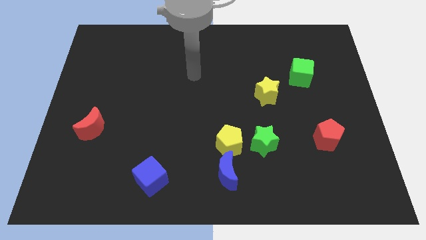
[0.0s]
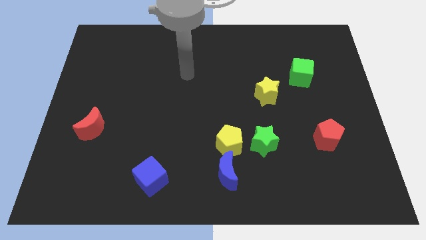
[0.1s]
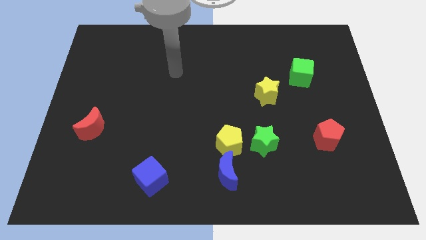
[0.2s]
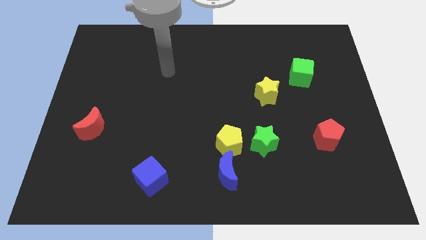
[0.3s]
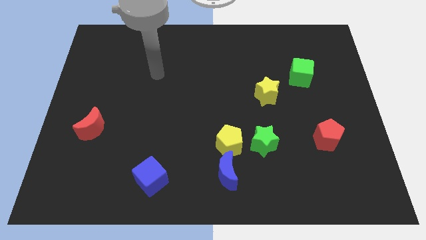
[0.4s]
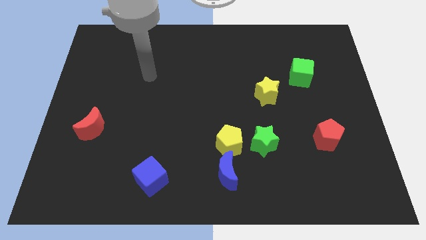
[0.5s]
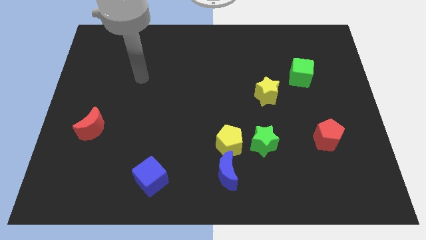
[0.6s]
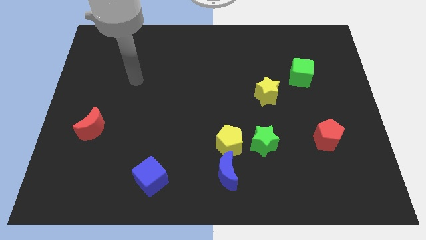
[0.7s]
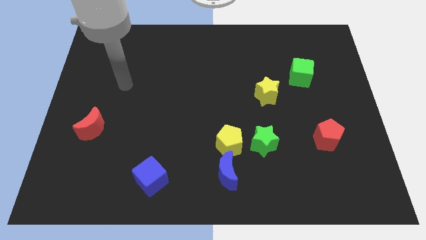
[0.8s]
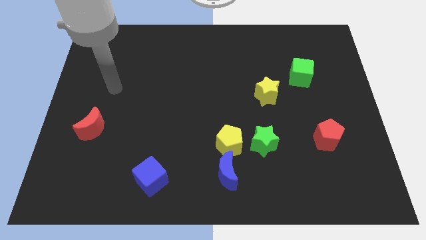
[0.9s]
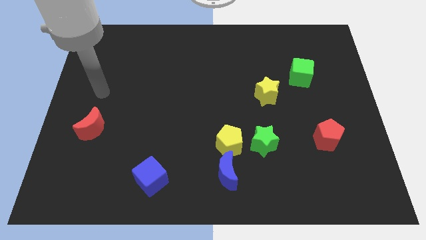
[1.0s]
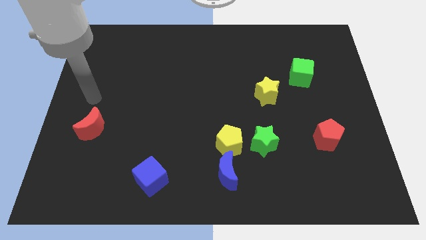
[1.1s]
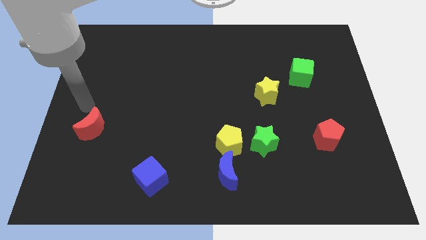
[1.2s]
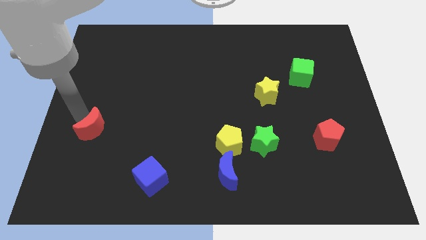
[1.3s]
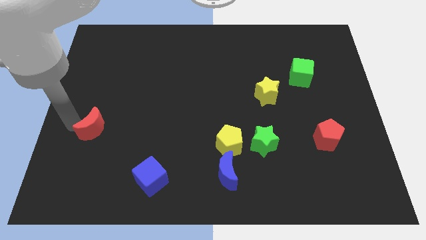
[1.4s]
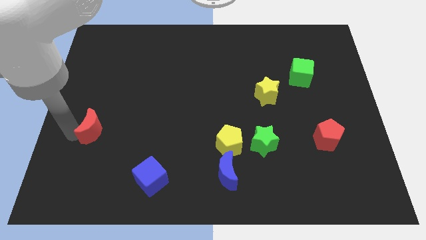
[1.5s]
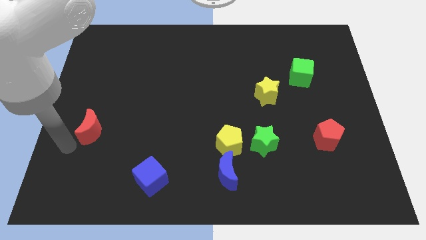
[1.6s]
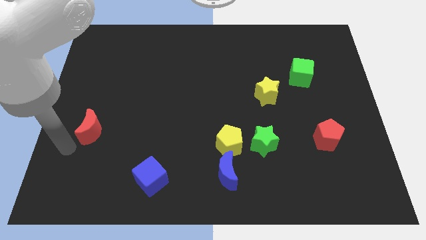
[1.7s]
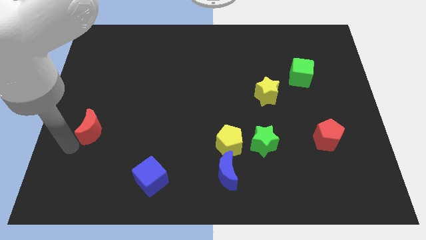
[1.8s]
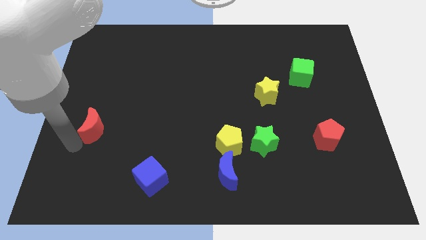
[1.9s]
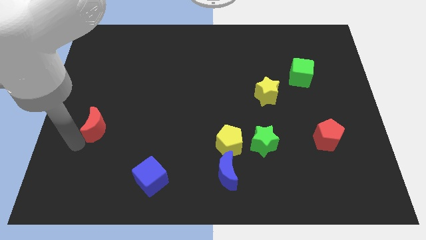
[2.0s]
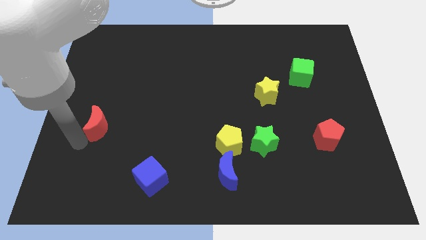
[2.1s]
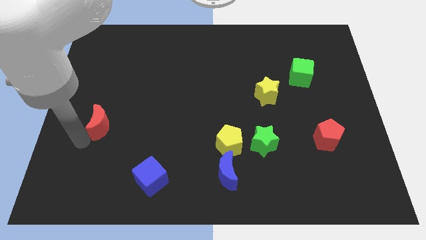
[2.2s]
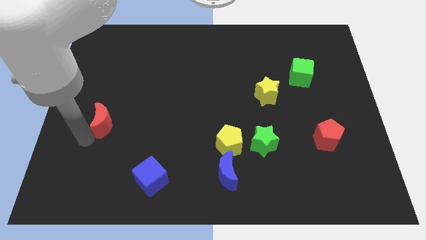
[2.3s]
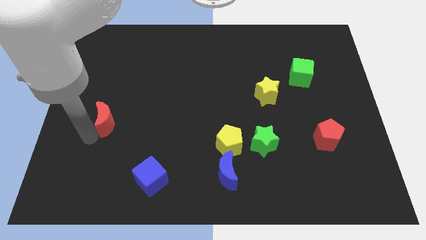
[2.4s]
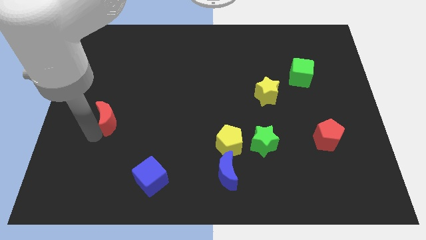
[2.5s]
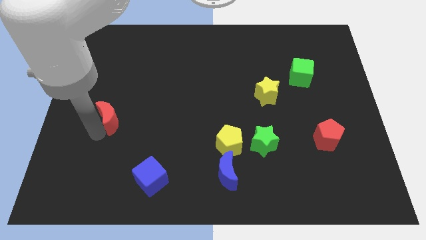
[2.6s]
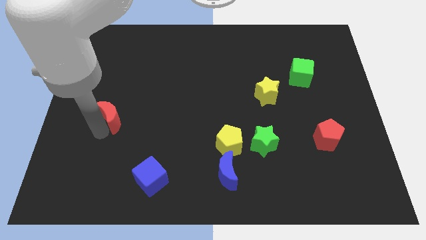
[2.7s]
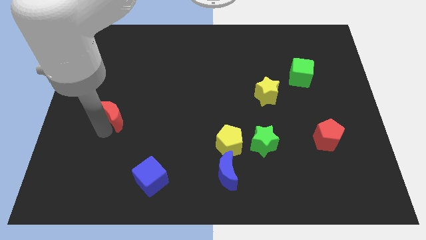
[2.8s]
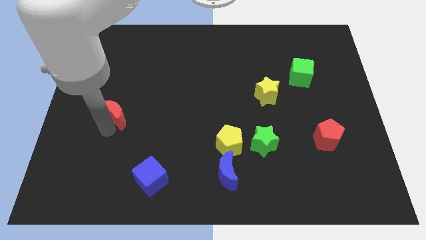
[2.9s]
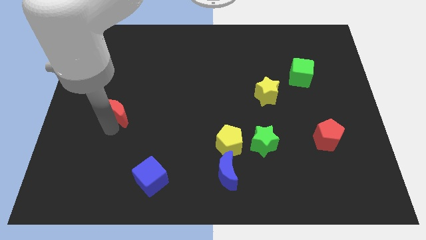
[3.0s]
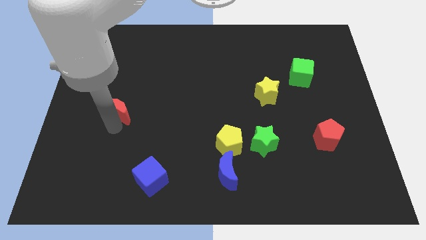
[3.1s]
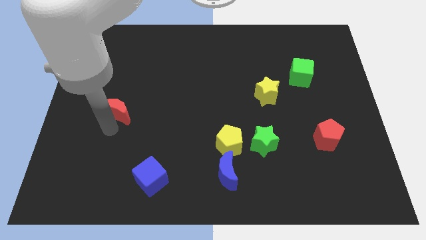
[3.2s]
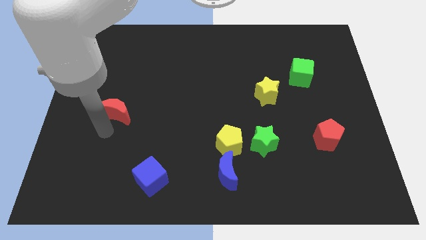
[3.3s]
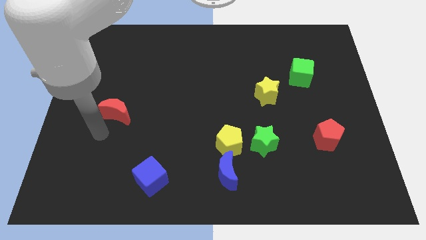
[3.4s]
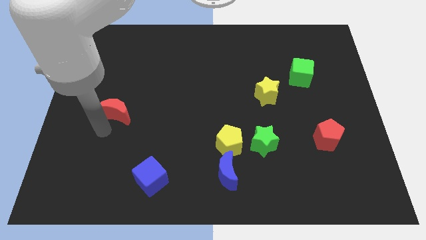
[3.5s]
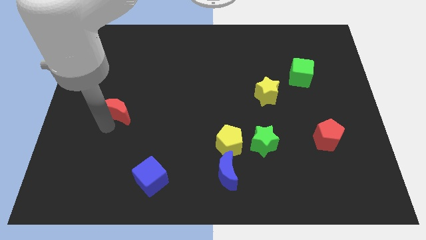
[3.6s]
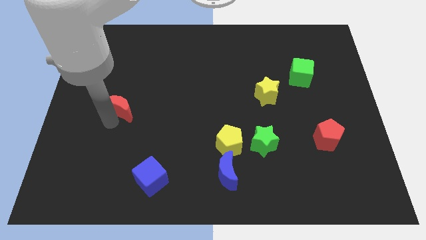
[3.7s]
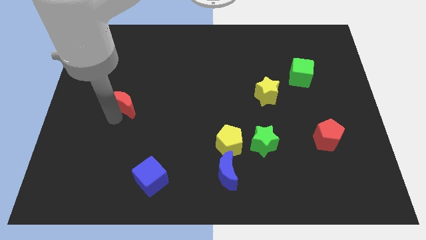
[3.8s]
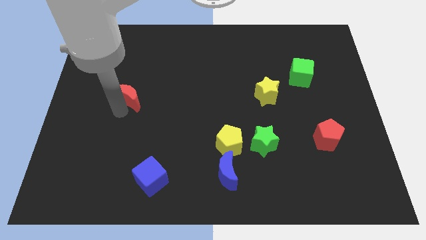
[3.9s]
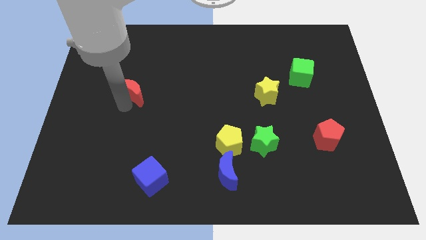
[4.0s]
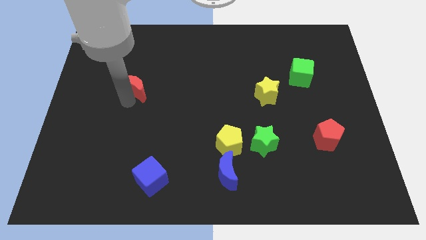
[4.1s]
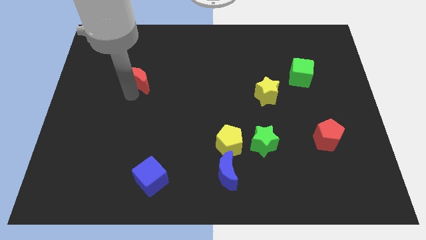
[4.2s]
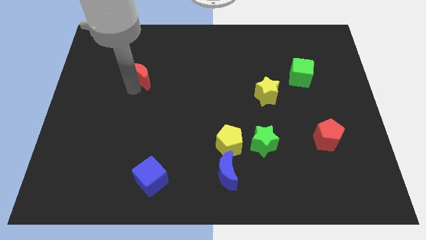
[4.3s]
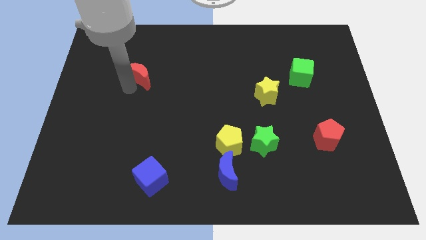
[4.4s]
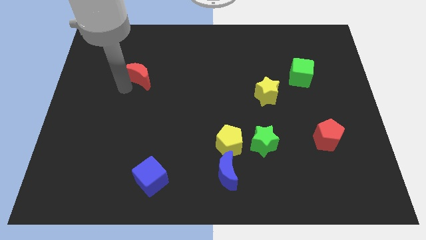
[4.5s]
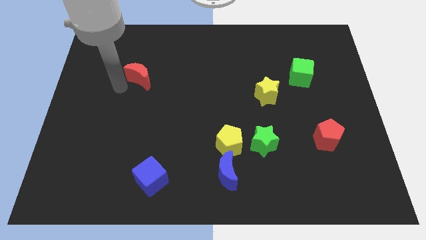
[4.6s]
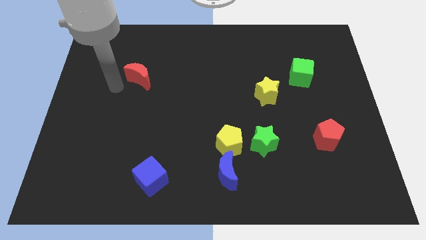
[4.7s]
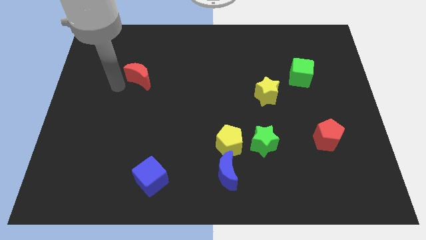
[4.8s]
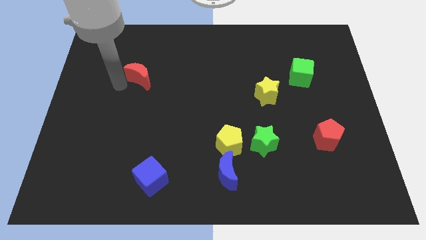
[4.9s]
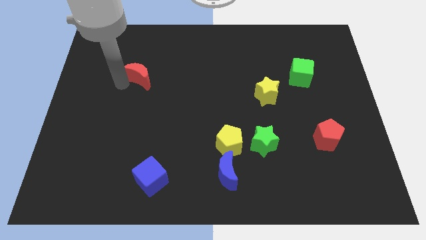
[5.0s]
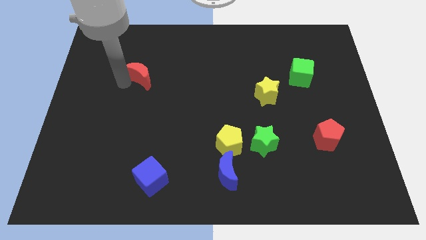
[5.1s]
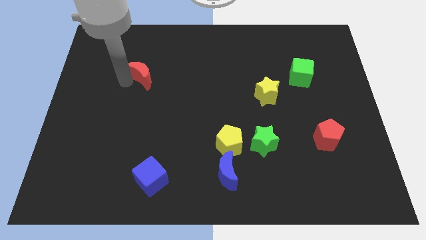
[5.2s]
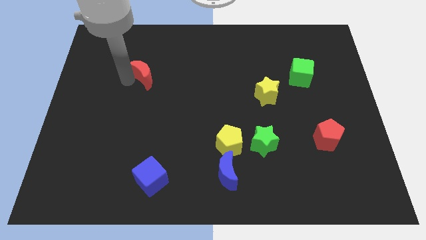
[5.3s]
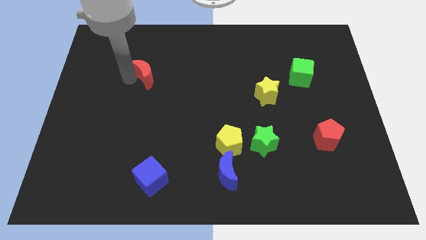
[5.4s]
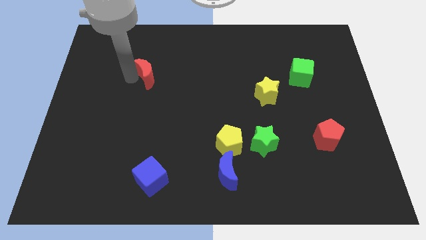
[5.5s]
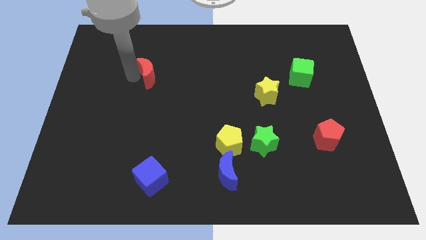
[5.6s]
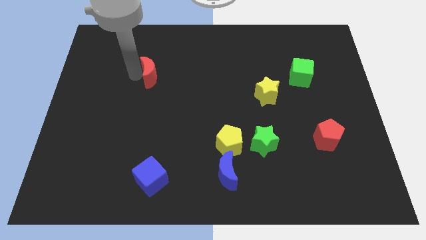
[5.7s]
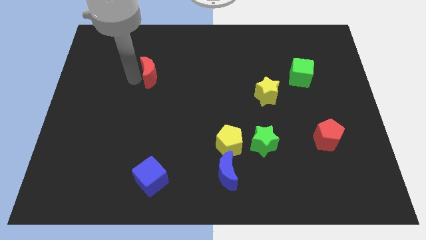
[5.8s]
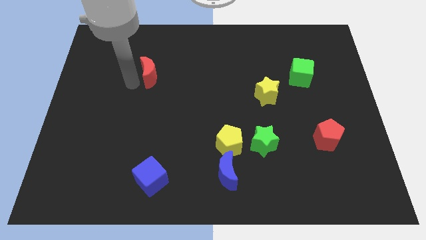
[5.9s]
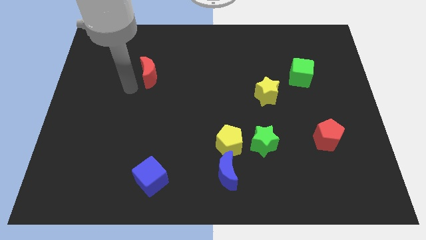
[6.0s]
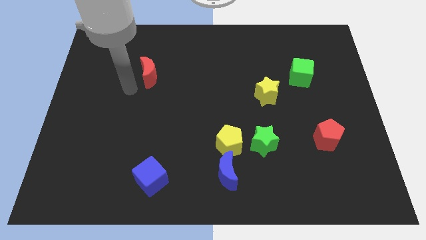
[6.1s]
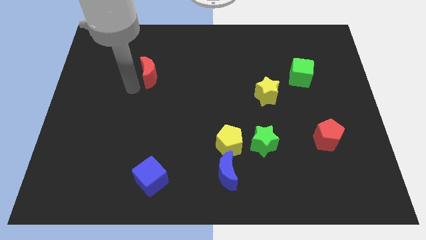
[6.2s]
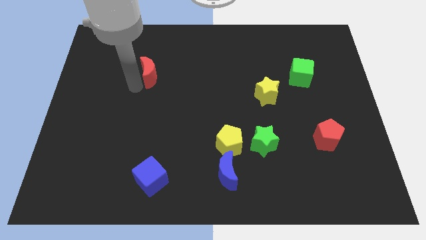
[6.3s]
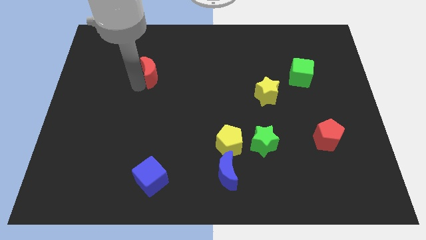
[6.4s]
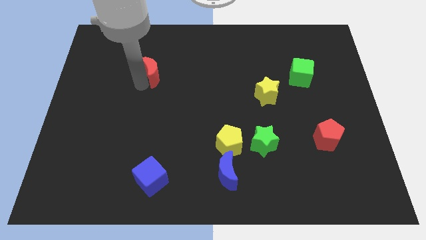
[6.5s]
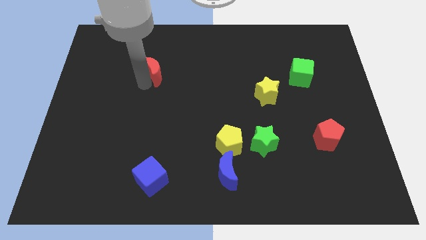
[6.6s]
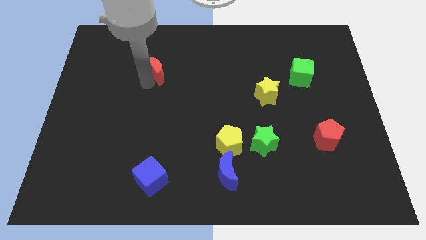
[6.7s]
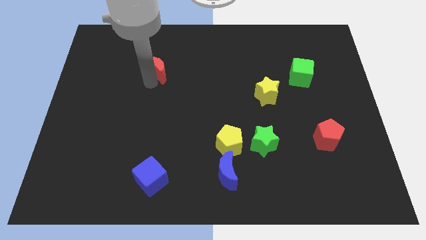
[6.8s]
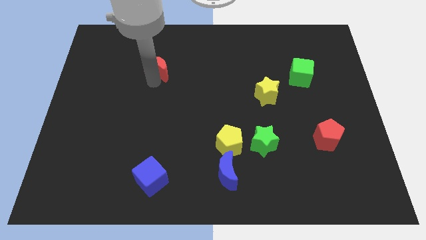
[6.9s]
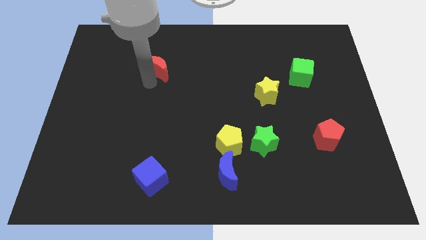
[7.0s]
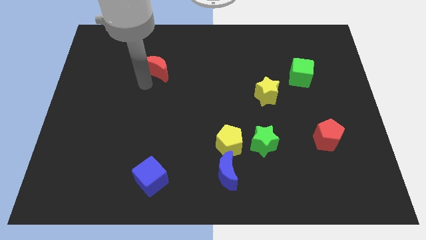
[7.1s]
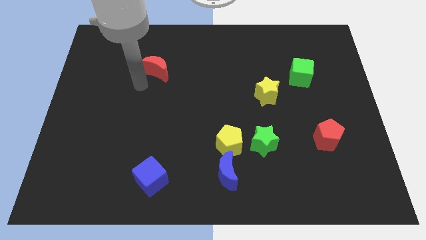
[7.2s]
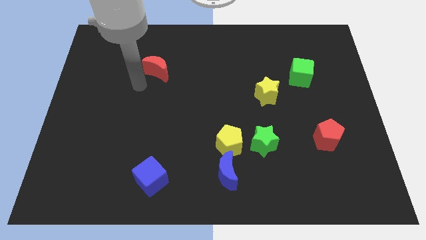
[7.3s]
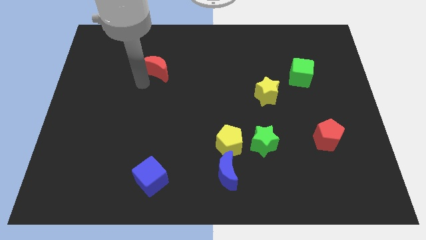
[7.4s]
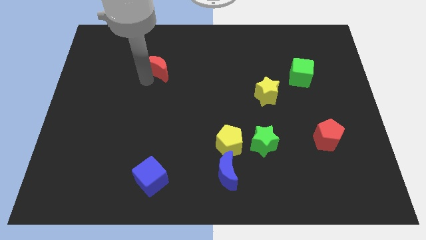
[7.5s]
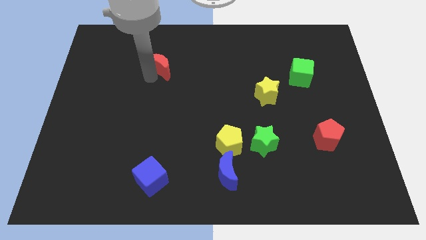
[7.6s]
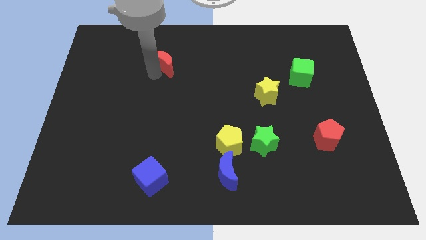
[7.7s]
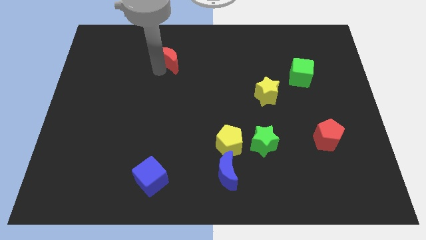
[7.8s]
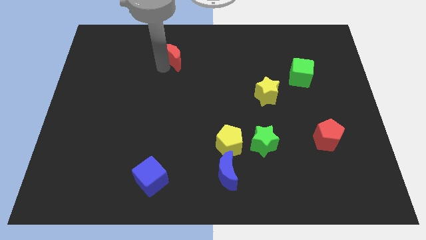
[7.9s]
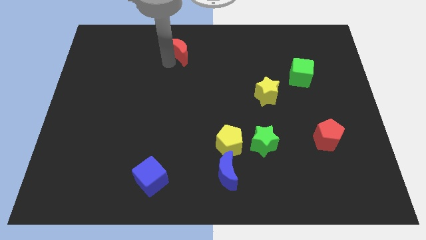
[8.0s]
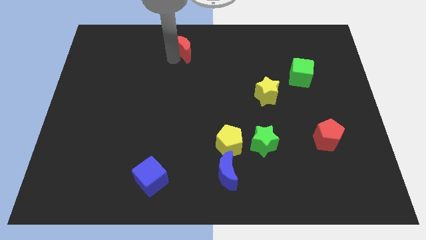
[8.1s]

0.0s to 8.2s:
put the red moon to the top

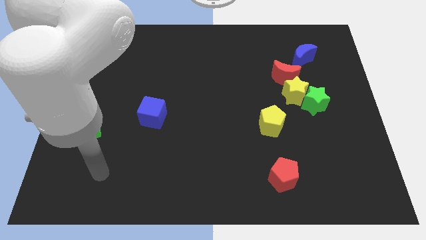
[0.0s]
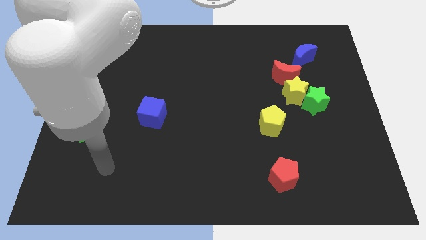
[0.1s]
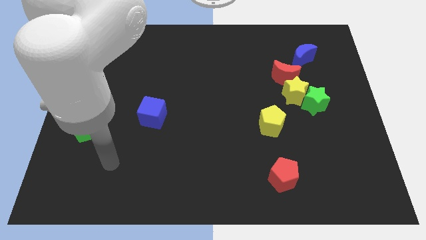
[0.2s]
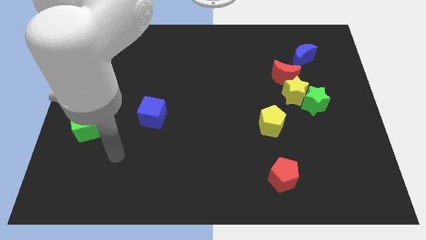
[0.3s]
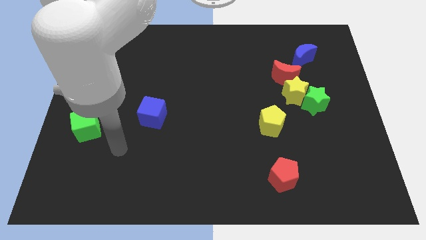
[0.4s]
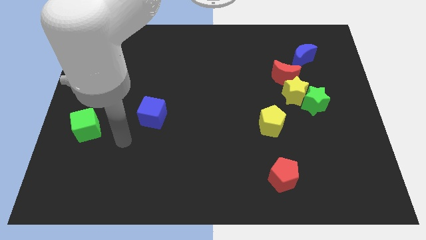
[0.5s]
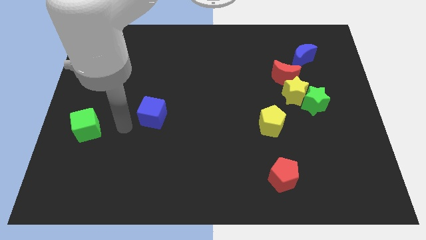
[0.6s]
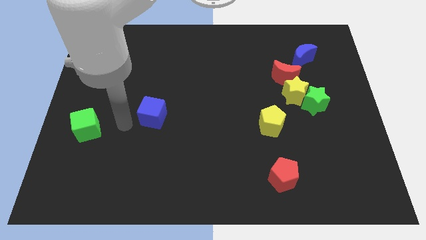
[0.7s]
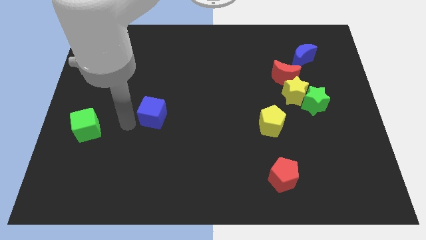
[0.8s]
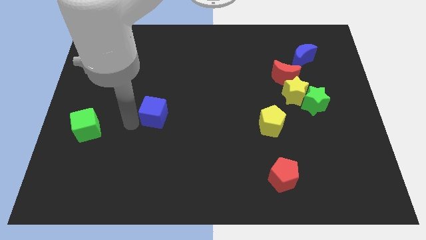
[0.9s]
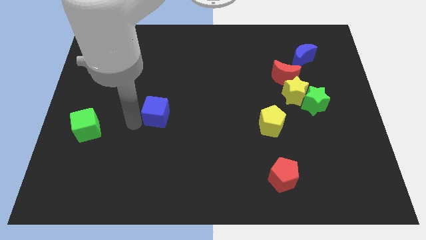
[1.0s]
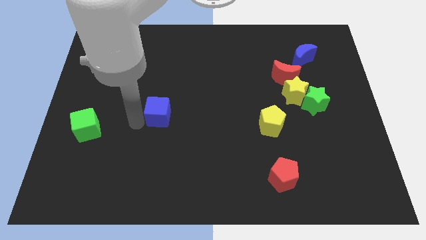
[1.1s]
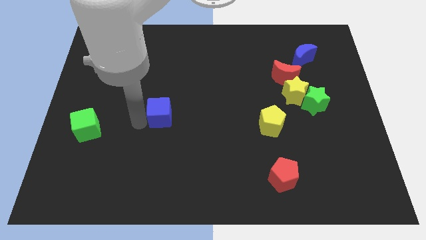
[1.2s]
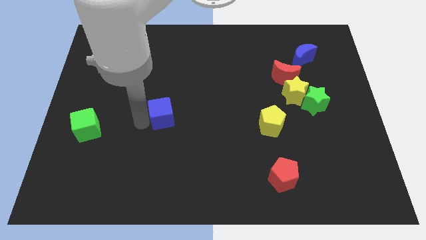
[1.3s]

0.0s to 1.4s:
push the blue cube to the center of the board
